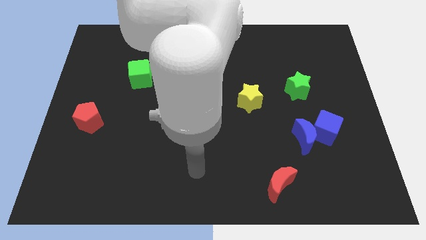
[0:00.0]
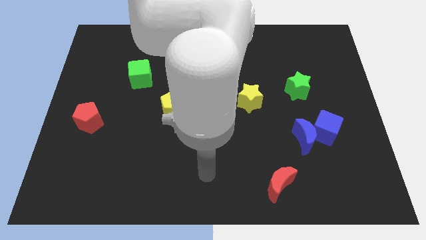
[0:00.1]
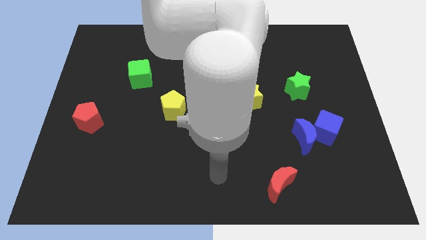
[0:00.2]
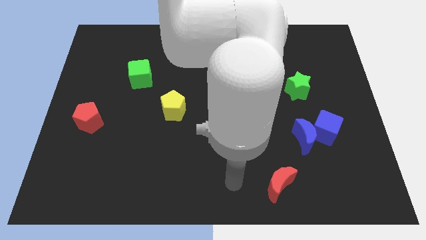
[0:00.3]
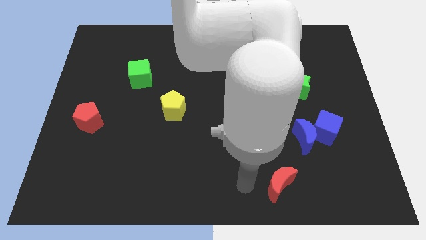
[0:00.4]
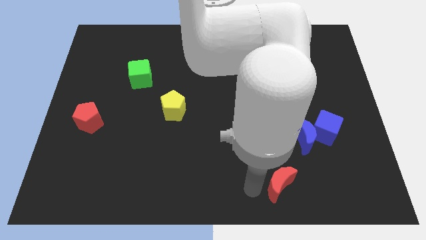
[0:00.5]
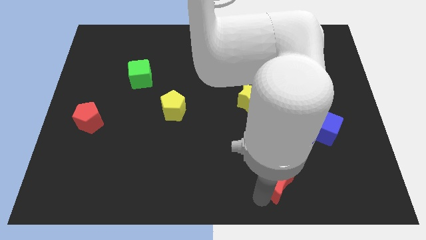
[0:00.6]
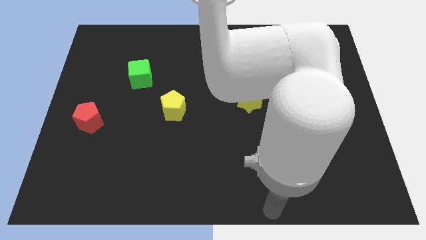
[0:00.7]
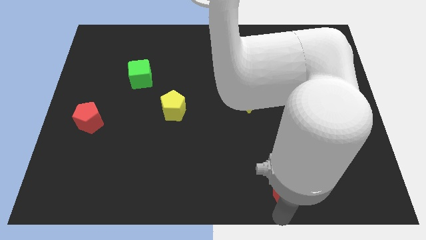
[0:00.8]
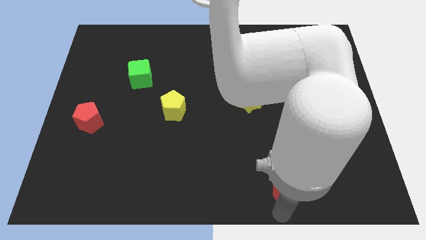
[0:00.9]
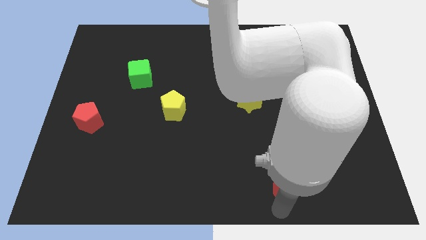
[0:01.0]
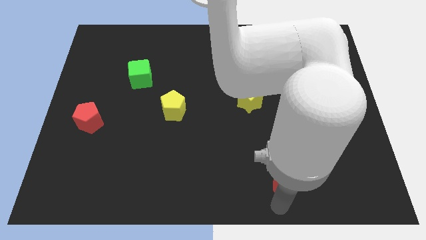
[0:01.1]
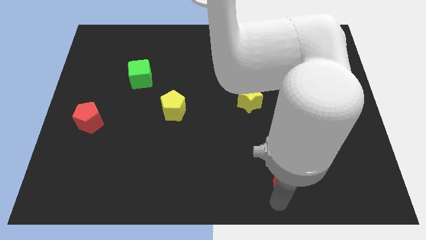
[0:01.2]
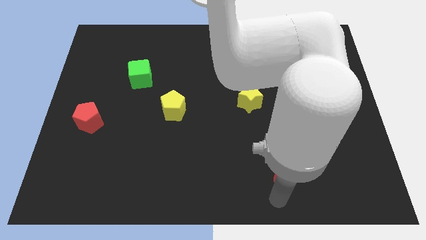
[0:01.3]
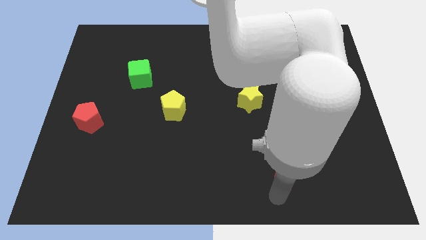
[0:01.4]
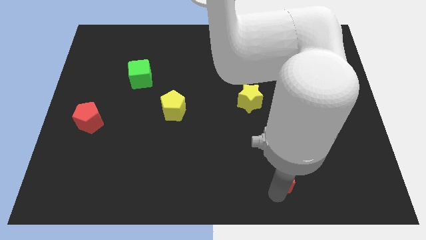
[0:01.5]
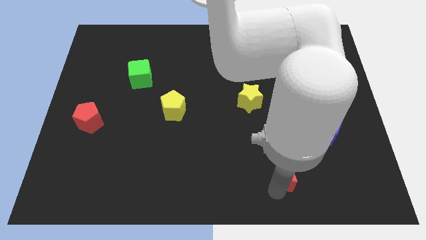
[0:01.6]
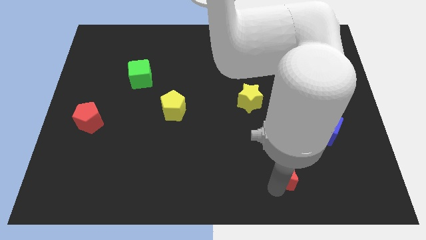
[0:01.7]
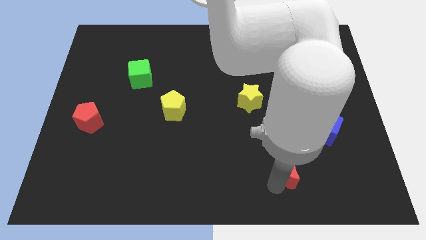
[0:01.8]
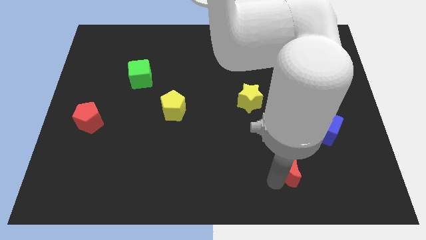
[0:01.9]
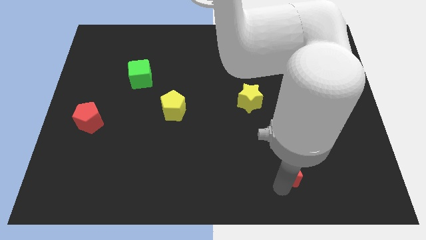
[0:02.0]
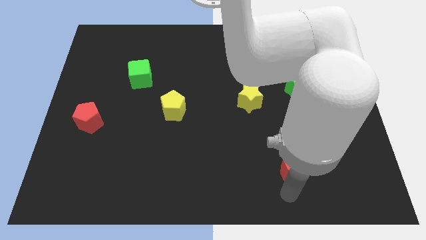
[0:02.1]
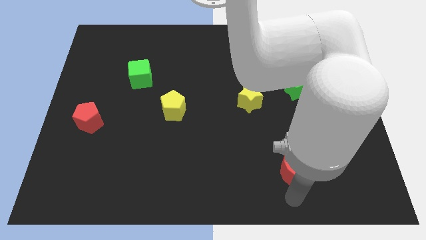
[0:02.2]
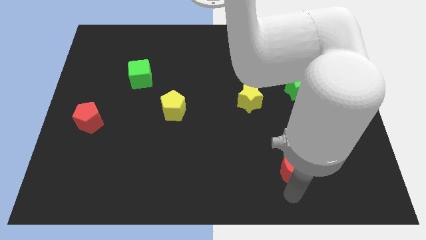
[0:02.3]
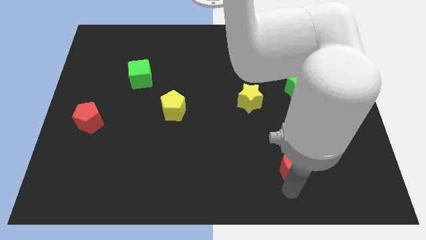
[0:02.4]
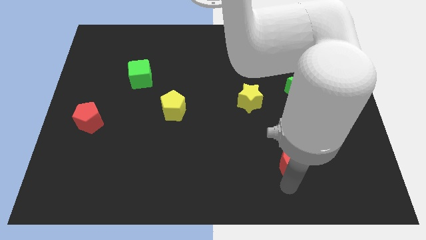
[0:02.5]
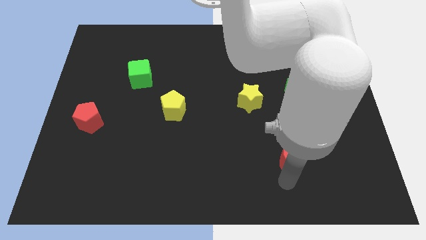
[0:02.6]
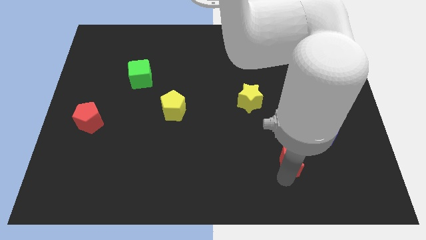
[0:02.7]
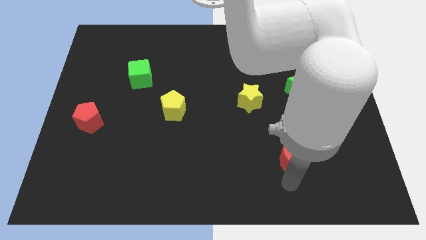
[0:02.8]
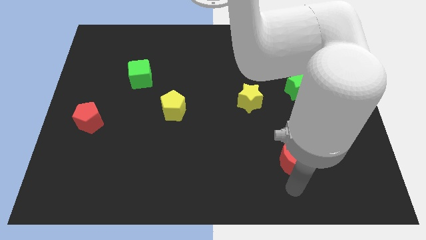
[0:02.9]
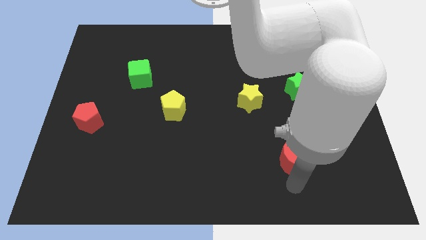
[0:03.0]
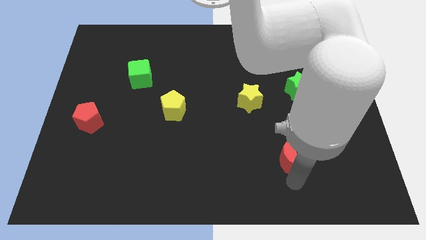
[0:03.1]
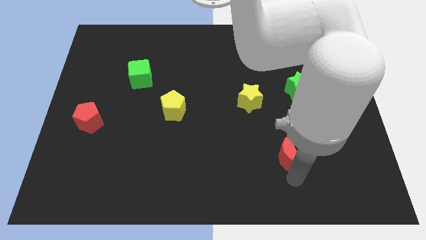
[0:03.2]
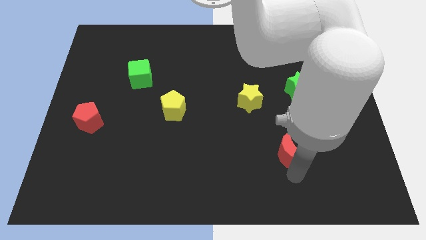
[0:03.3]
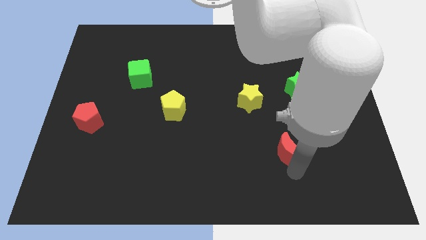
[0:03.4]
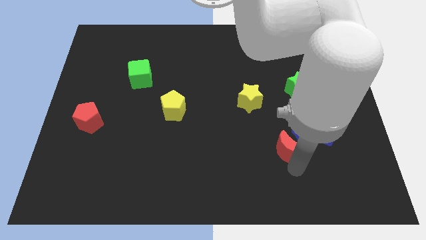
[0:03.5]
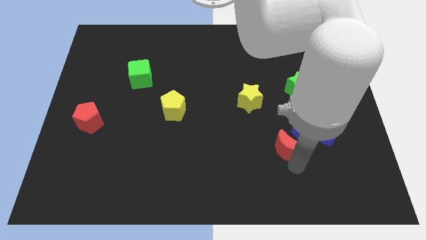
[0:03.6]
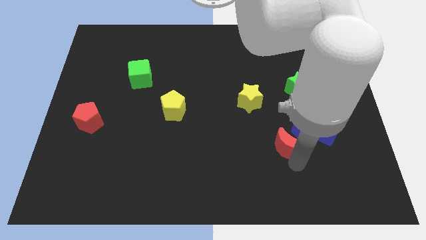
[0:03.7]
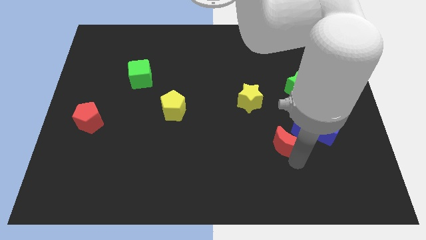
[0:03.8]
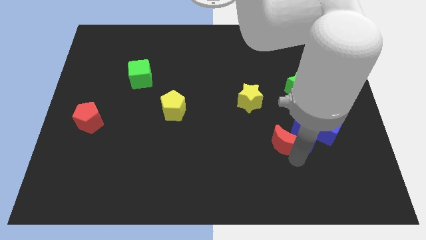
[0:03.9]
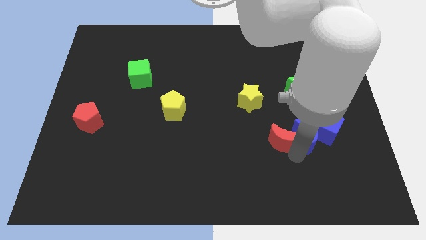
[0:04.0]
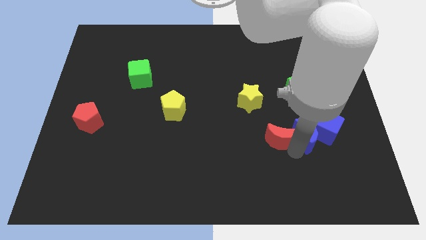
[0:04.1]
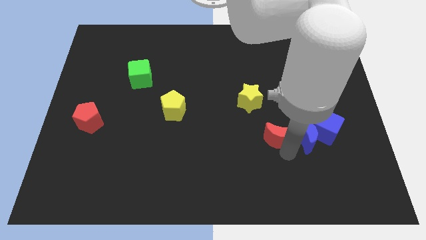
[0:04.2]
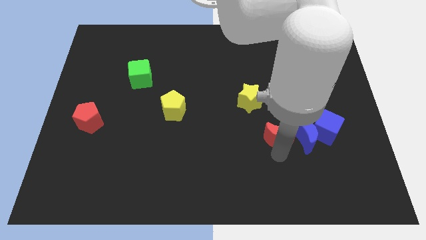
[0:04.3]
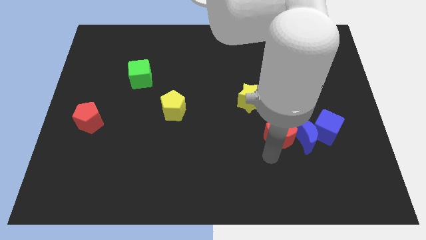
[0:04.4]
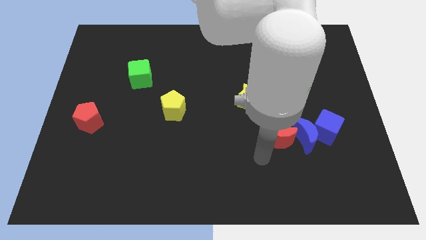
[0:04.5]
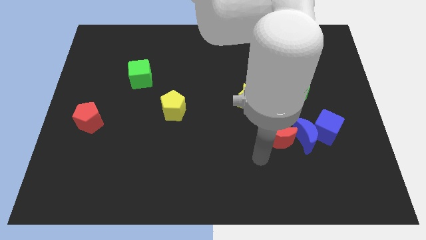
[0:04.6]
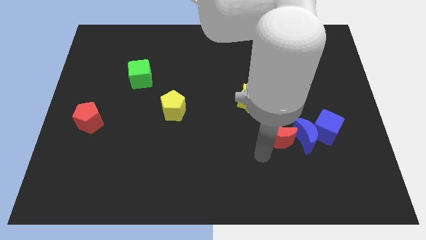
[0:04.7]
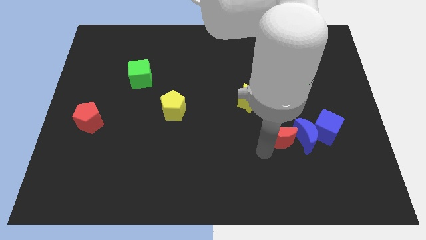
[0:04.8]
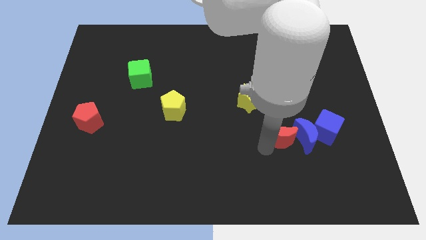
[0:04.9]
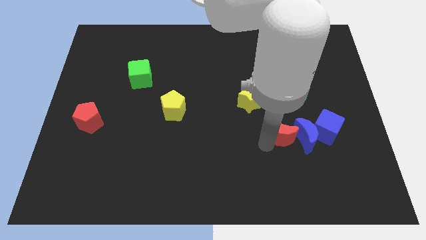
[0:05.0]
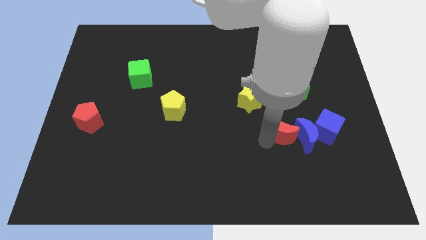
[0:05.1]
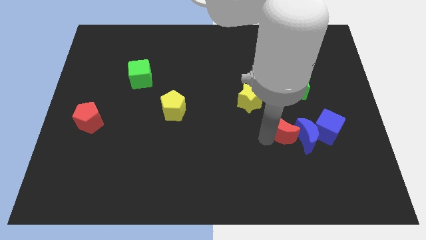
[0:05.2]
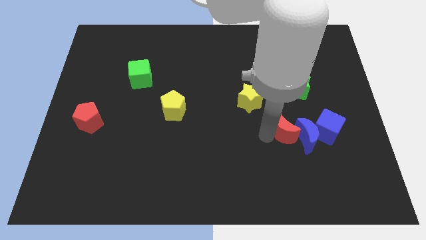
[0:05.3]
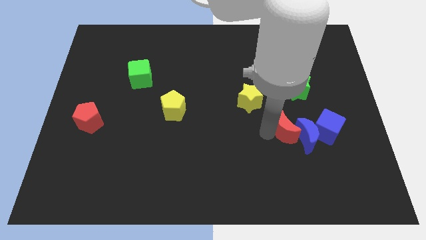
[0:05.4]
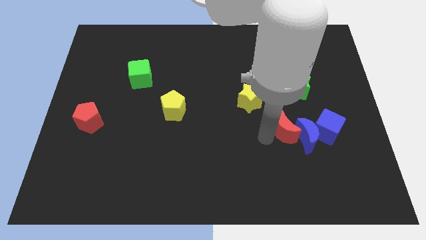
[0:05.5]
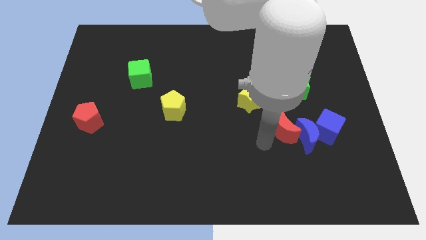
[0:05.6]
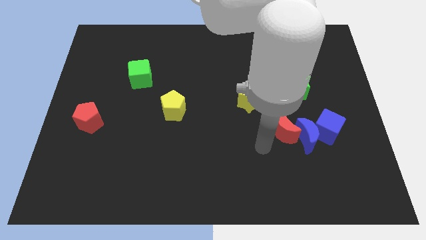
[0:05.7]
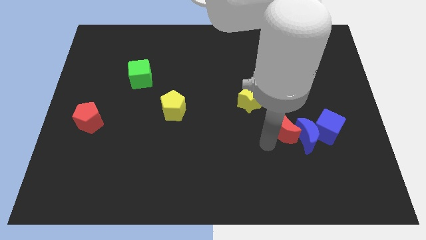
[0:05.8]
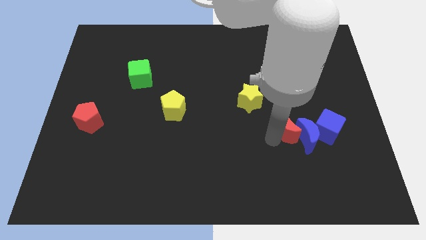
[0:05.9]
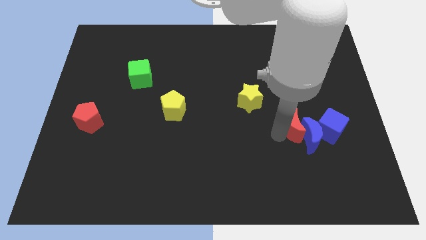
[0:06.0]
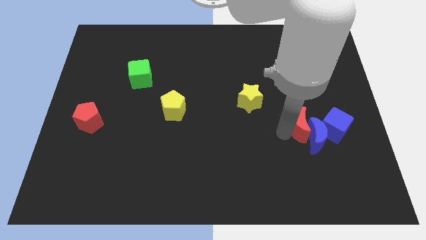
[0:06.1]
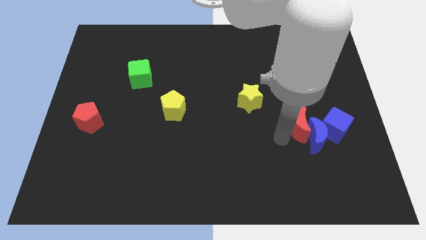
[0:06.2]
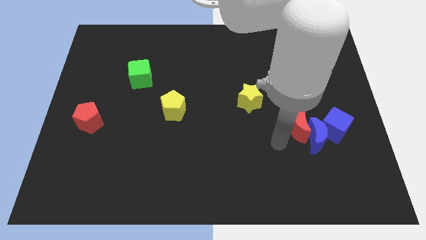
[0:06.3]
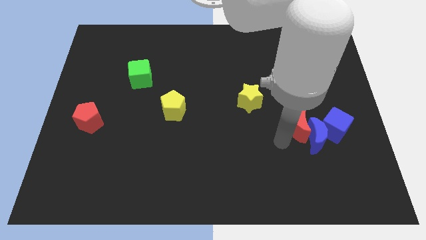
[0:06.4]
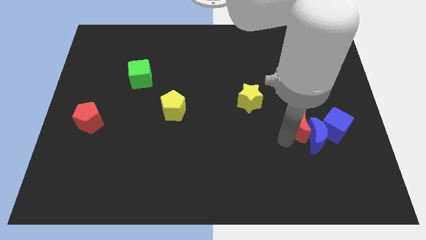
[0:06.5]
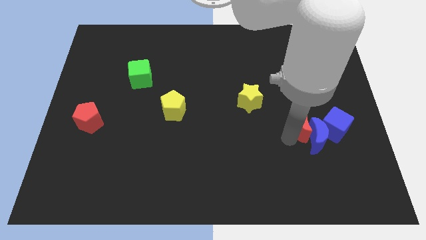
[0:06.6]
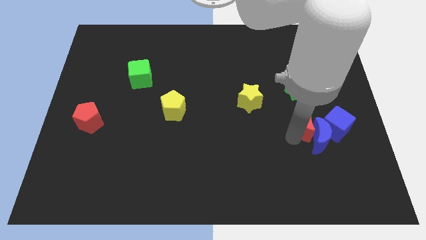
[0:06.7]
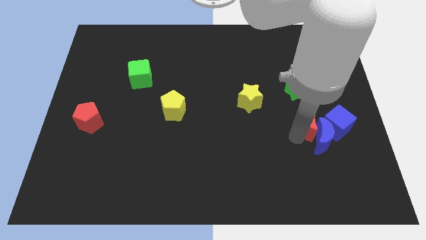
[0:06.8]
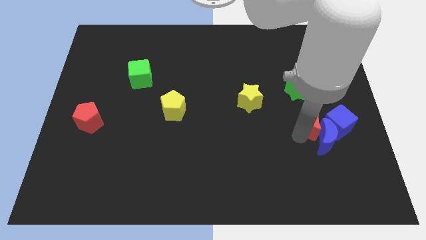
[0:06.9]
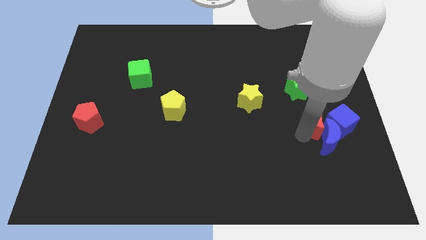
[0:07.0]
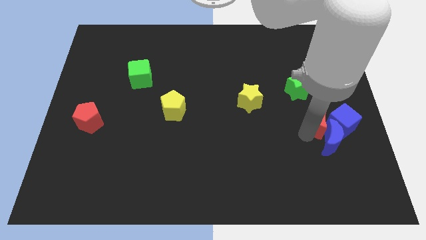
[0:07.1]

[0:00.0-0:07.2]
push the red moon to the bottom right side of the green star

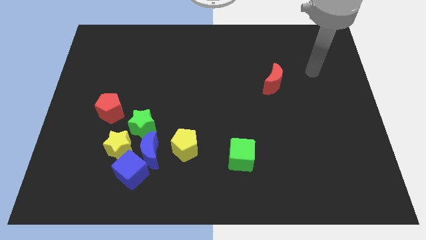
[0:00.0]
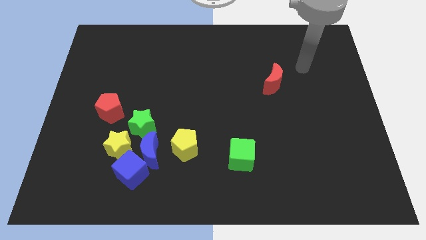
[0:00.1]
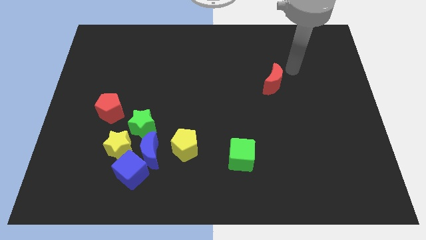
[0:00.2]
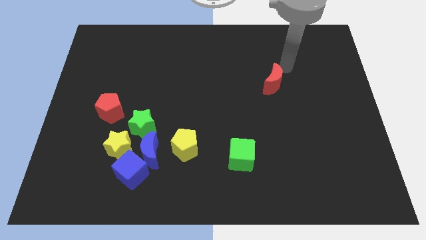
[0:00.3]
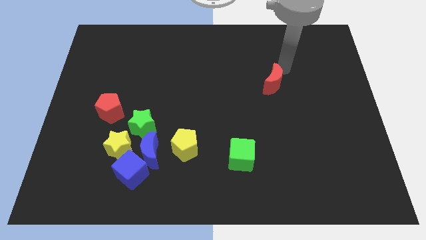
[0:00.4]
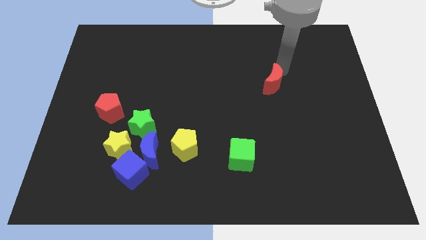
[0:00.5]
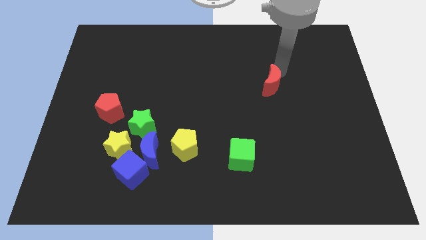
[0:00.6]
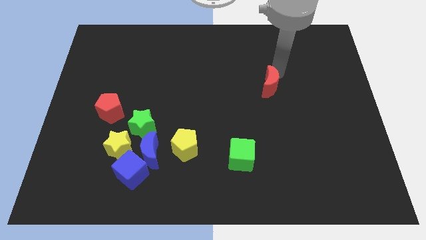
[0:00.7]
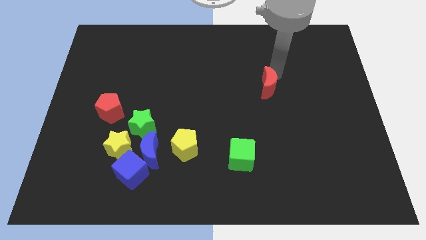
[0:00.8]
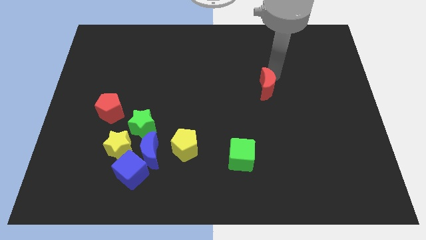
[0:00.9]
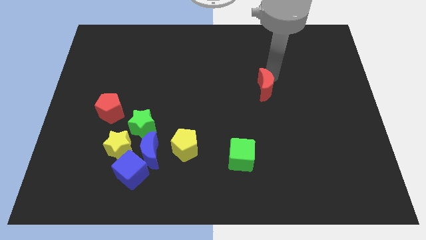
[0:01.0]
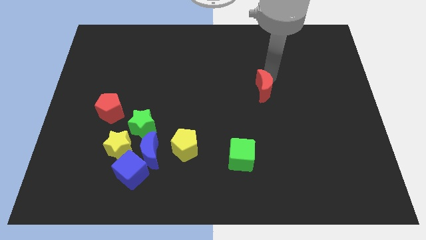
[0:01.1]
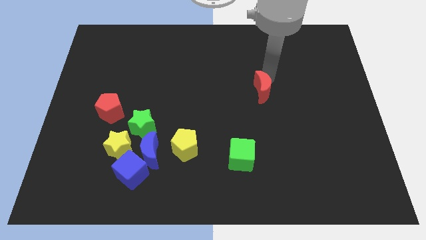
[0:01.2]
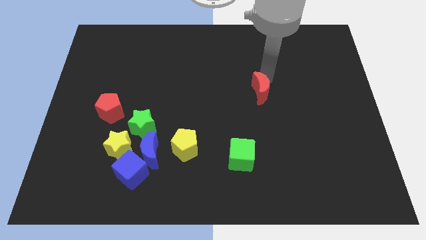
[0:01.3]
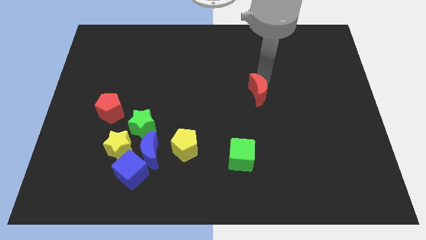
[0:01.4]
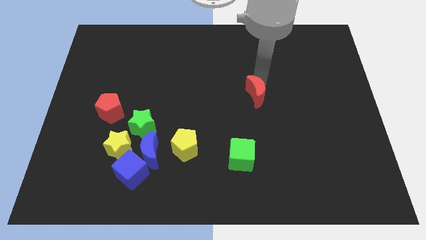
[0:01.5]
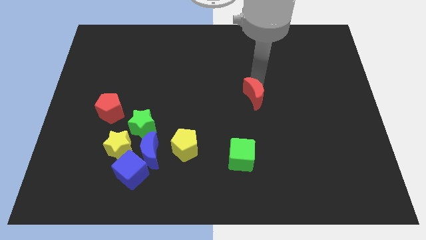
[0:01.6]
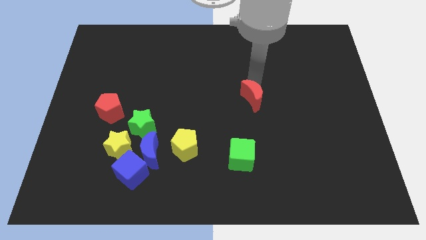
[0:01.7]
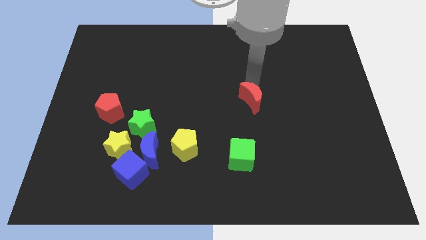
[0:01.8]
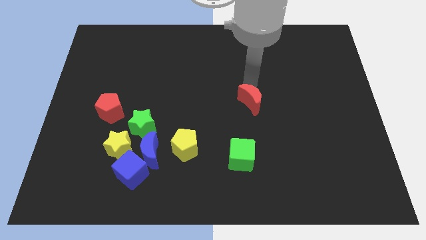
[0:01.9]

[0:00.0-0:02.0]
push the red moon to the top side of the green cube
